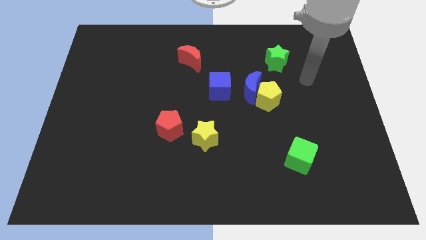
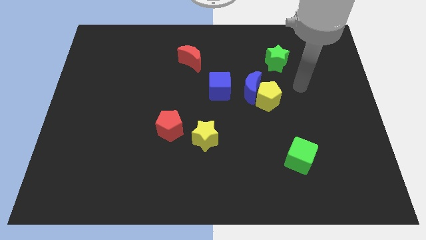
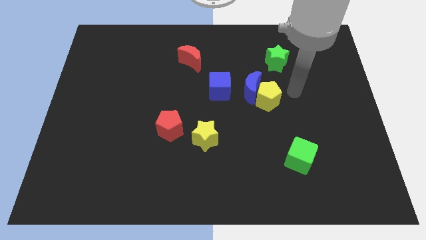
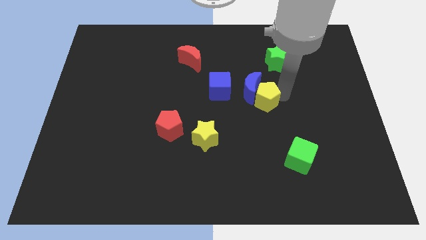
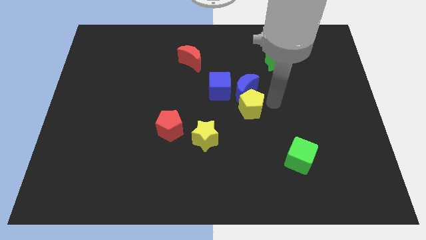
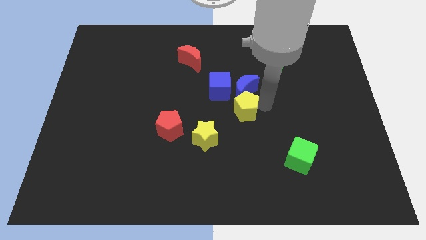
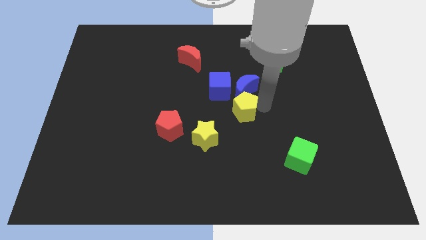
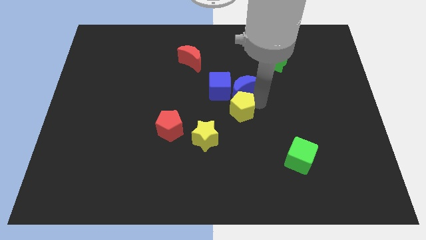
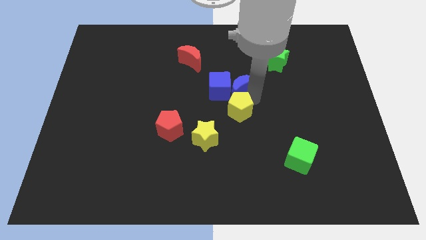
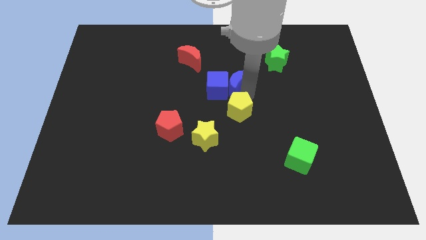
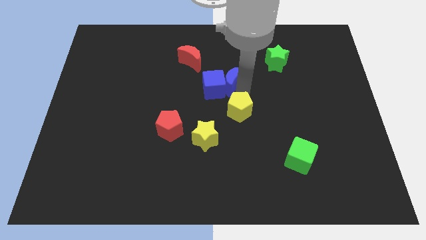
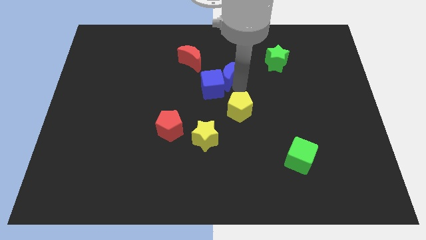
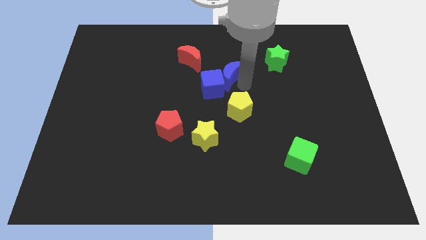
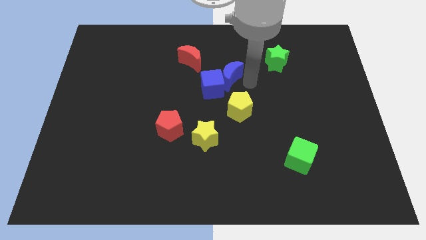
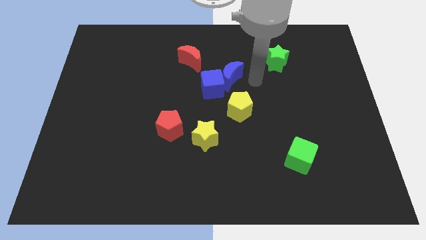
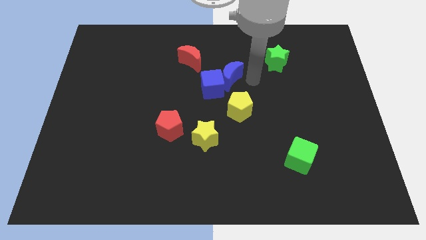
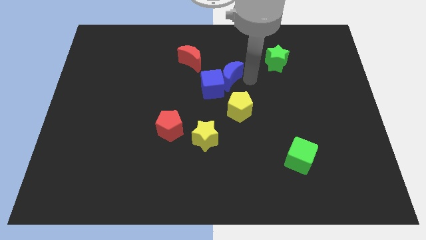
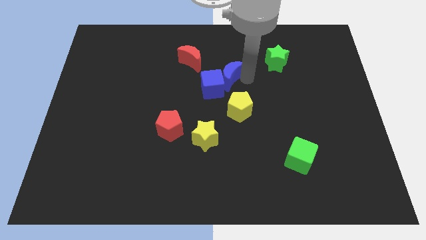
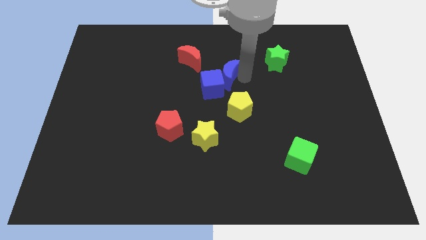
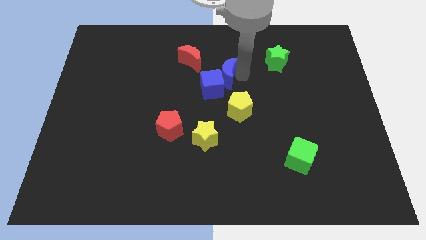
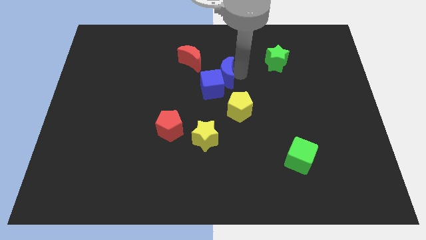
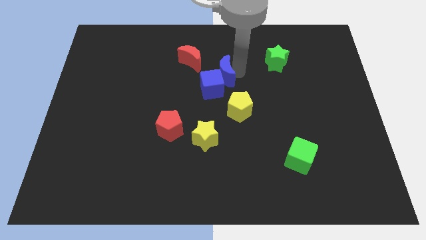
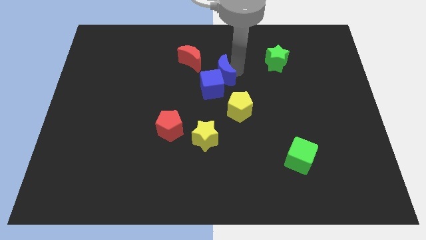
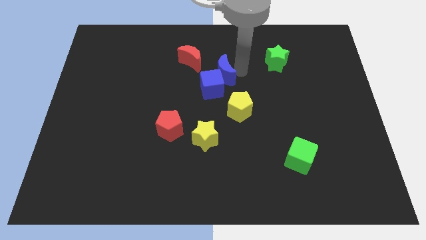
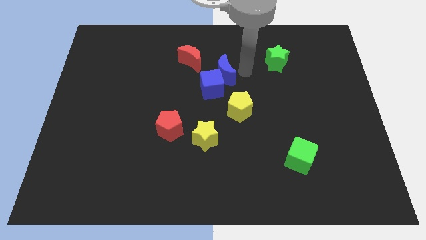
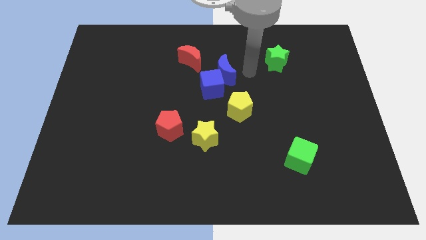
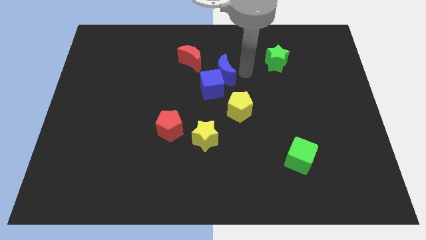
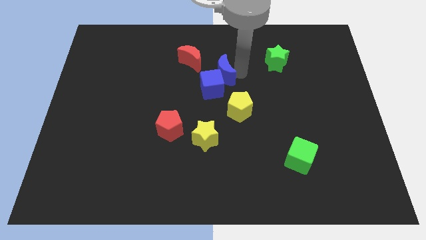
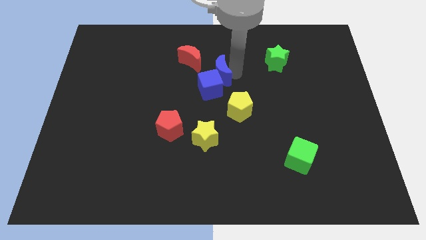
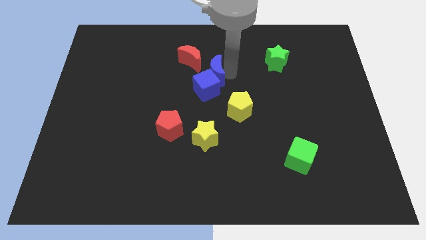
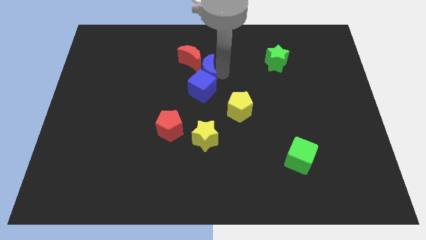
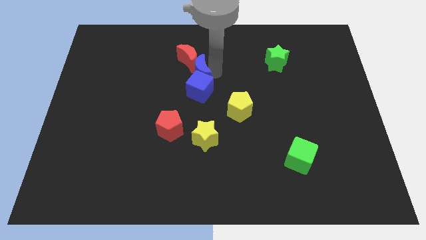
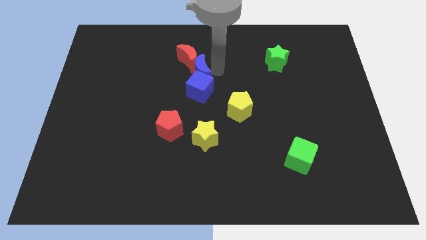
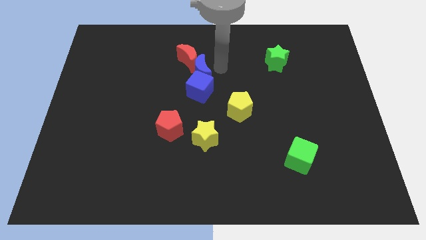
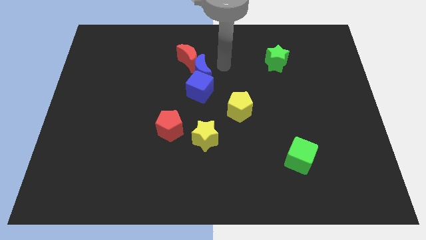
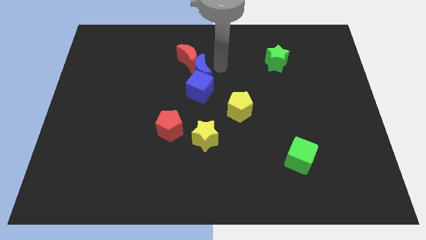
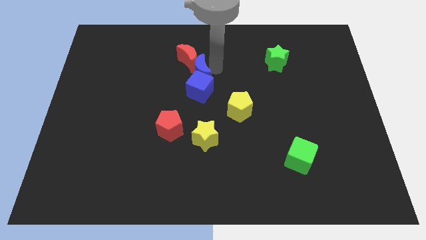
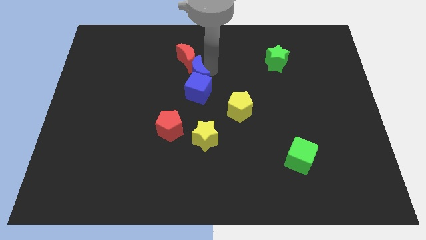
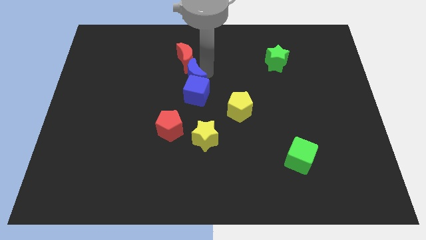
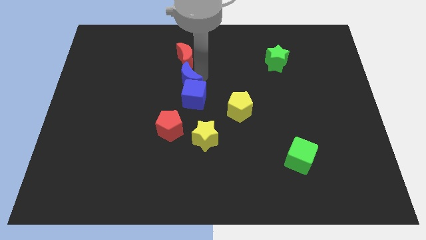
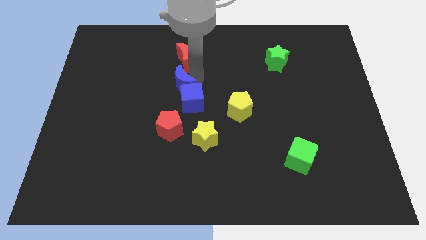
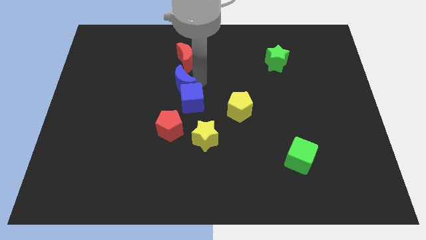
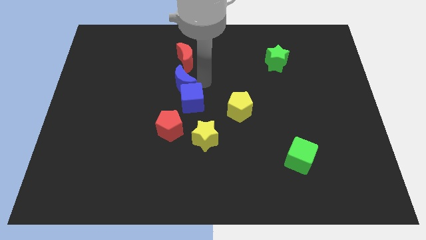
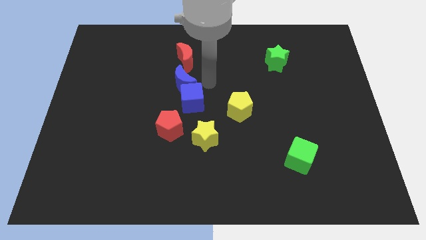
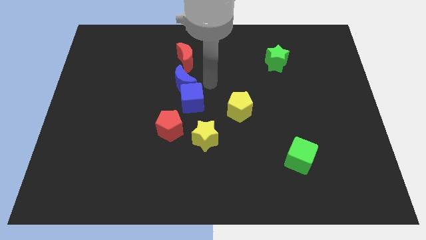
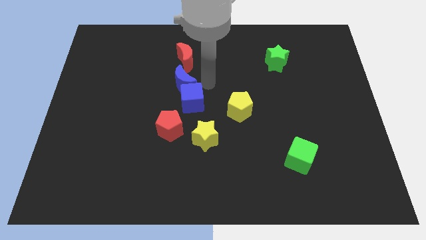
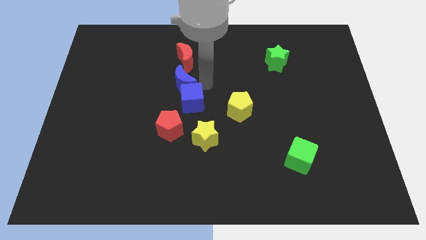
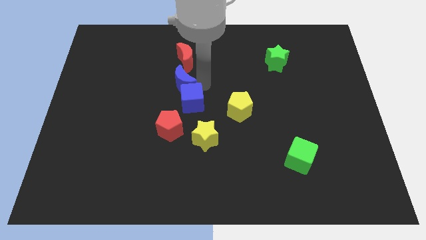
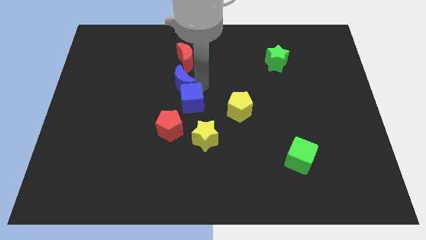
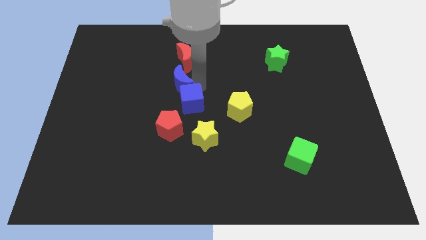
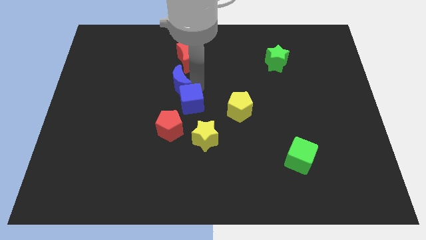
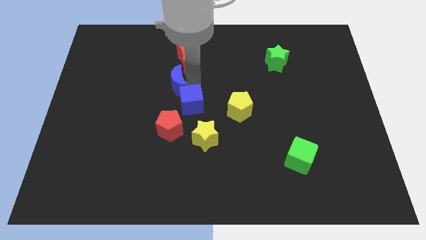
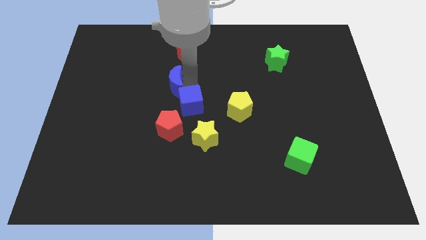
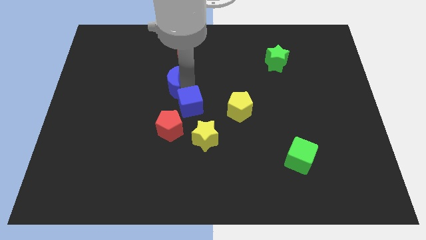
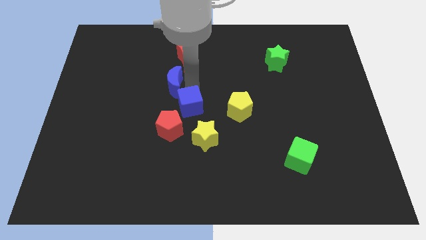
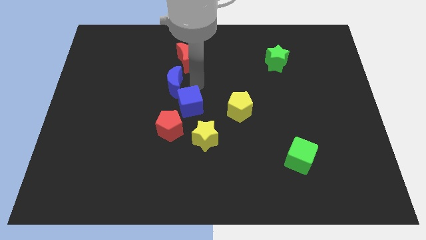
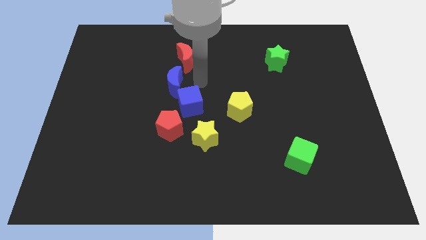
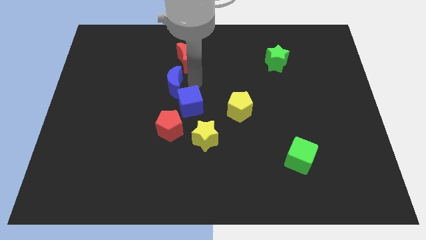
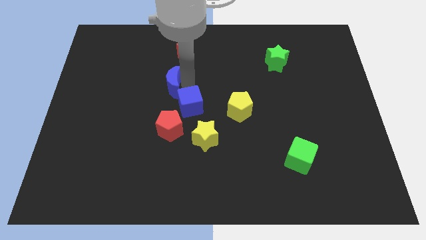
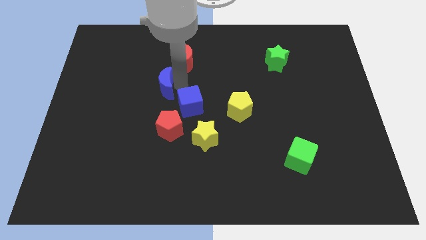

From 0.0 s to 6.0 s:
move the blue moon to the left

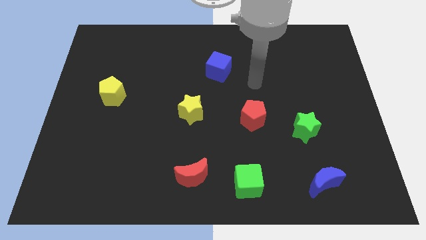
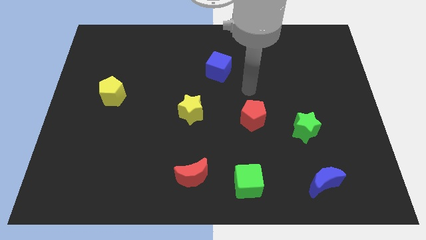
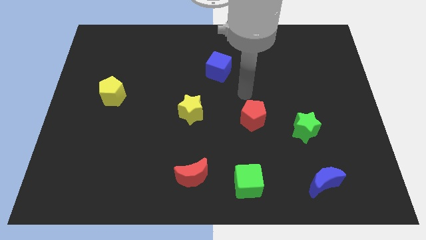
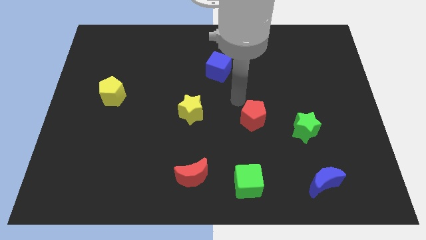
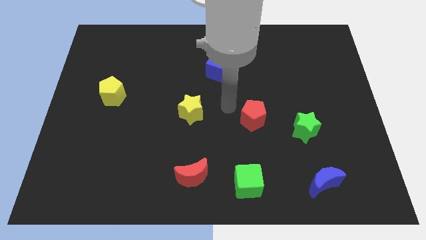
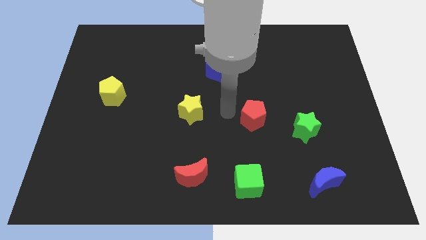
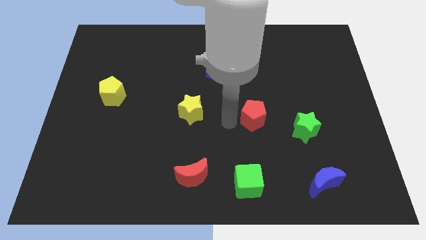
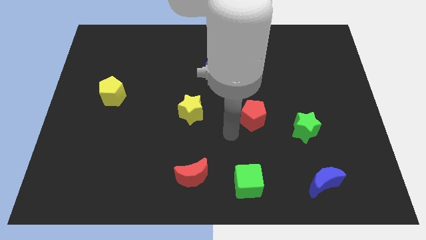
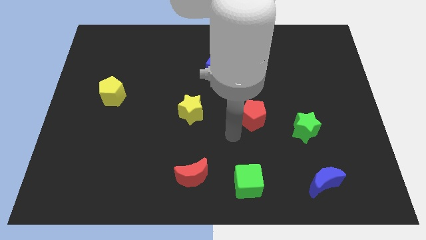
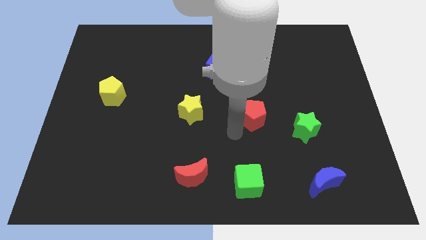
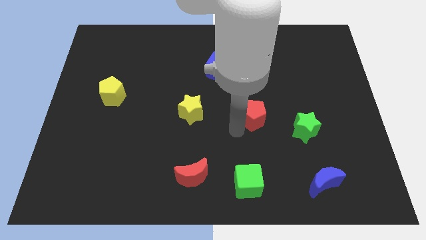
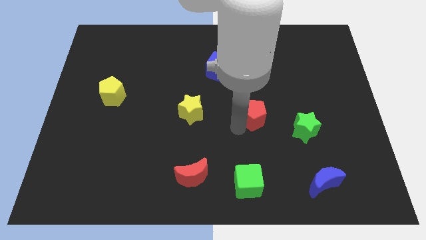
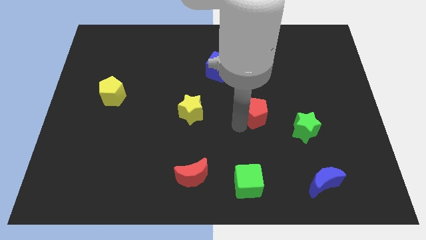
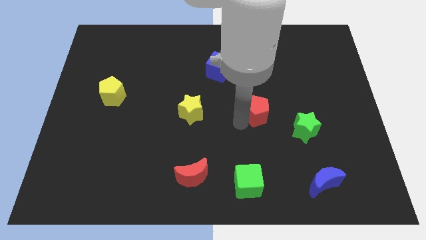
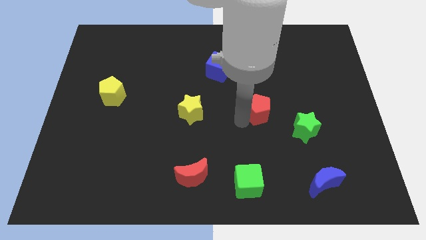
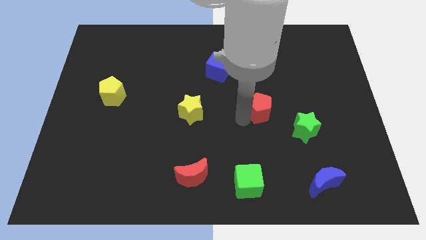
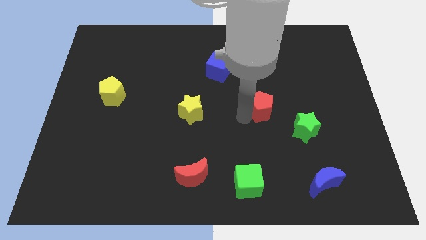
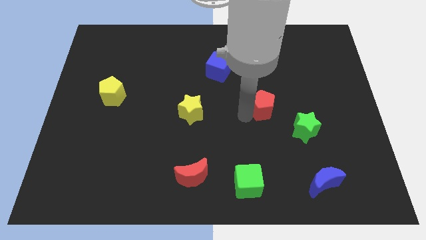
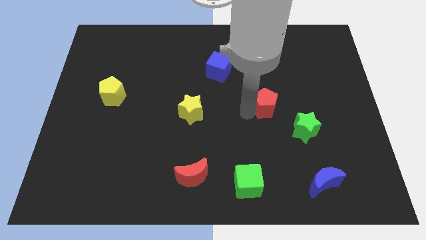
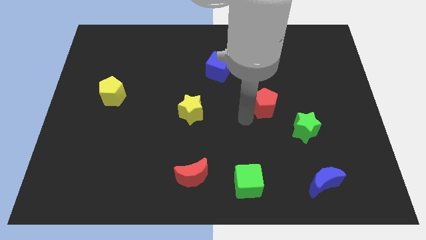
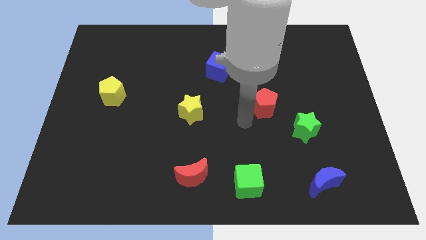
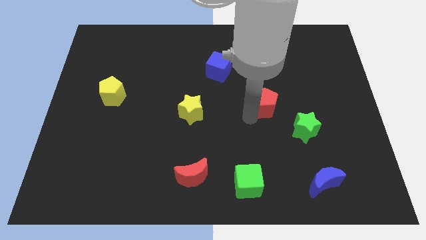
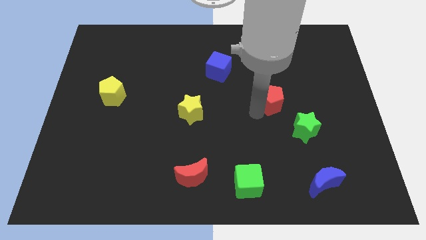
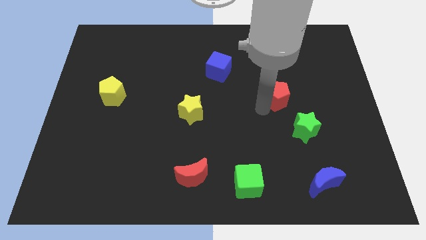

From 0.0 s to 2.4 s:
move the red pentagon slightly upwards and to the right
